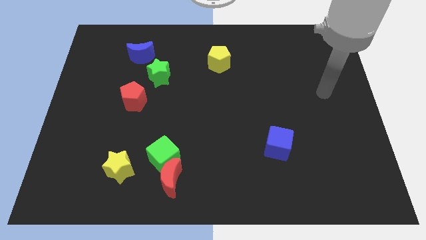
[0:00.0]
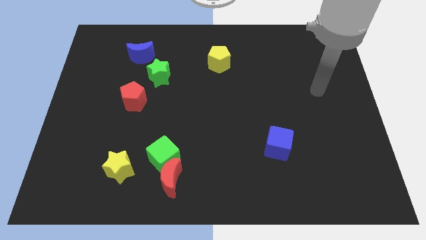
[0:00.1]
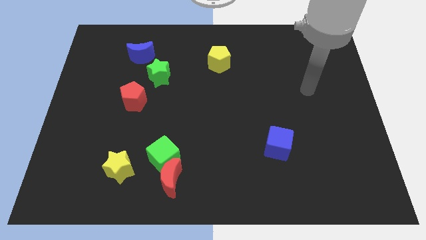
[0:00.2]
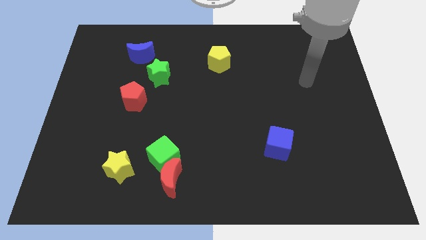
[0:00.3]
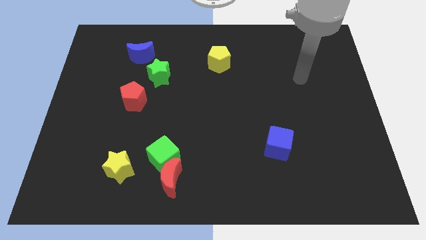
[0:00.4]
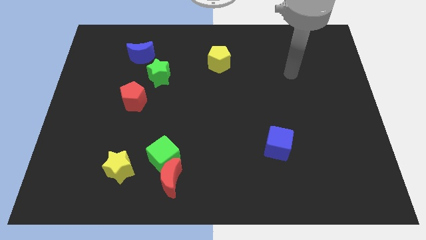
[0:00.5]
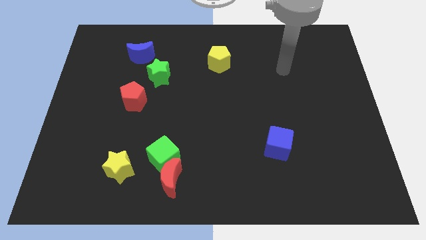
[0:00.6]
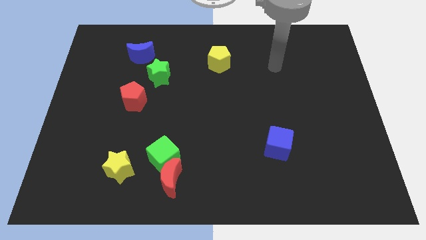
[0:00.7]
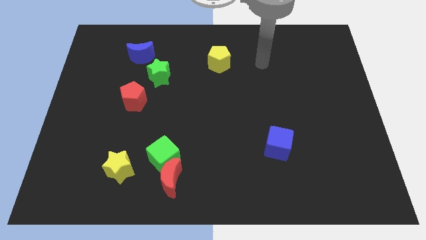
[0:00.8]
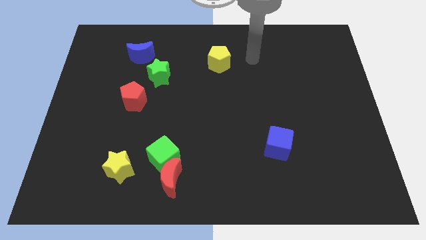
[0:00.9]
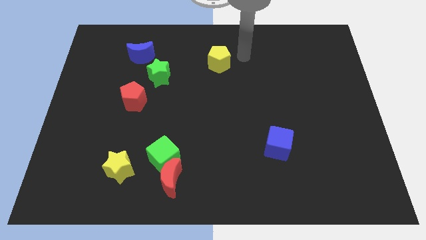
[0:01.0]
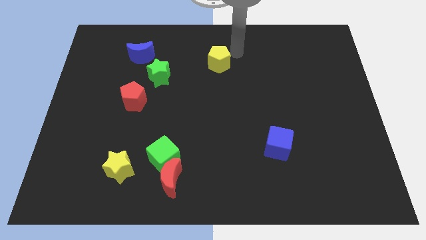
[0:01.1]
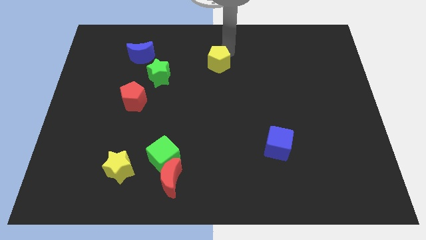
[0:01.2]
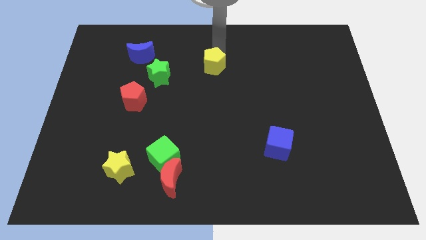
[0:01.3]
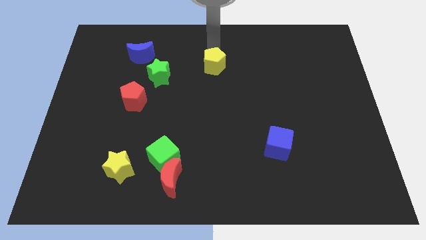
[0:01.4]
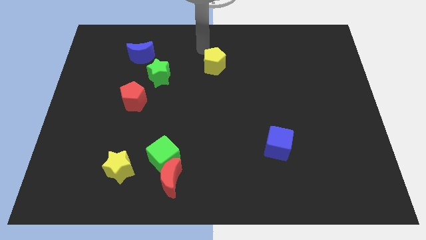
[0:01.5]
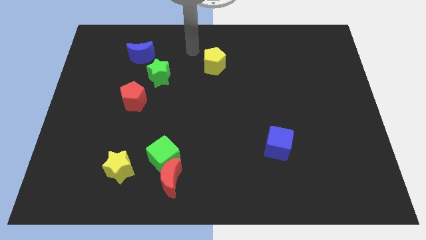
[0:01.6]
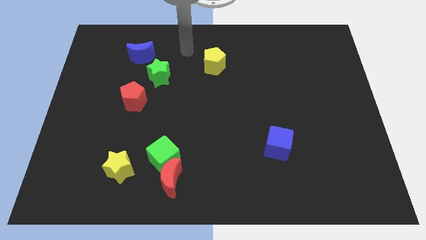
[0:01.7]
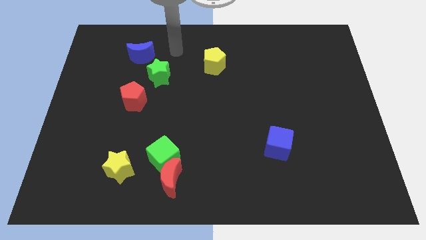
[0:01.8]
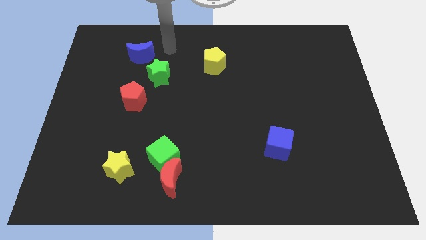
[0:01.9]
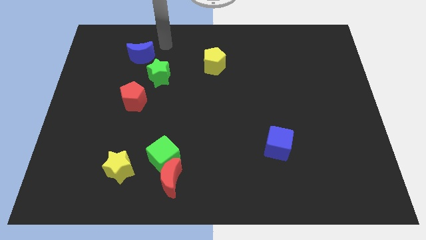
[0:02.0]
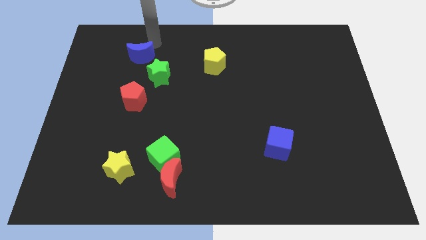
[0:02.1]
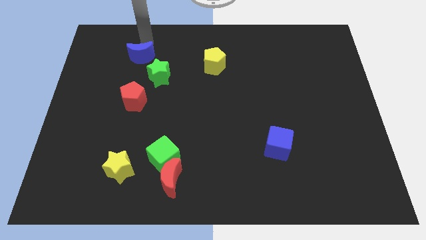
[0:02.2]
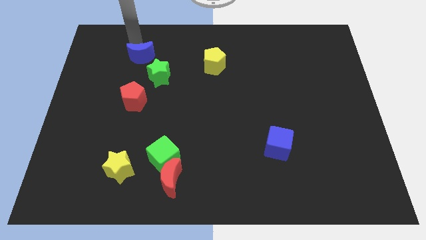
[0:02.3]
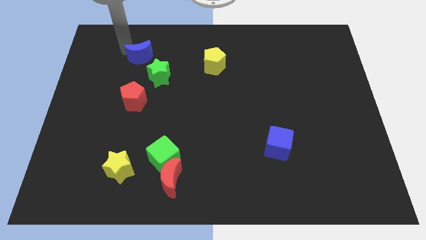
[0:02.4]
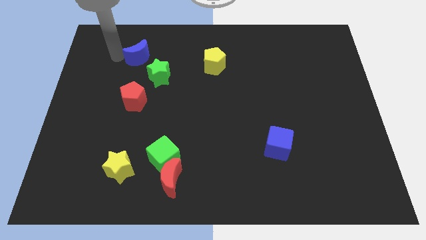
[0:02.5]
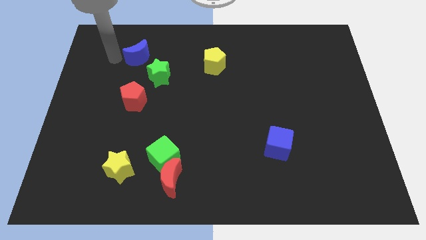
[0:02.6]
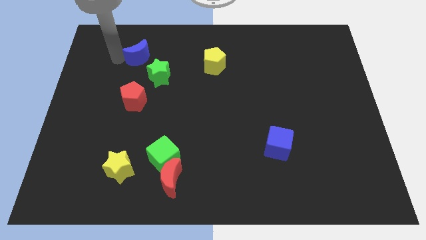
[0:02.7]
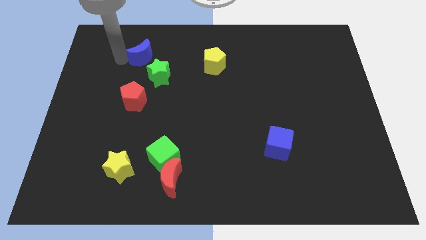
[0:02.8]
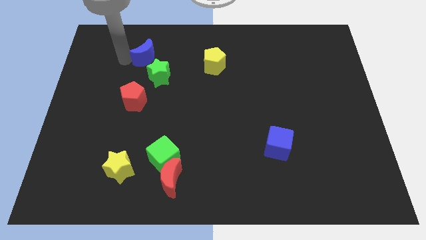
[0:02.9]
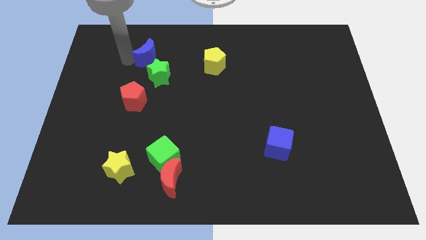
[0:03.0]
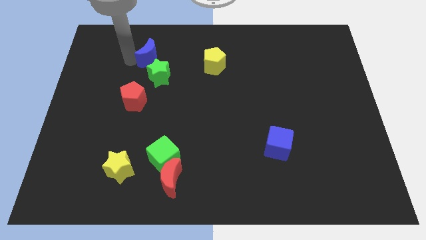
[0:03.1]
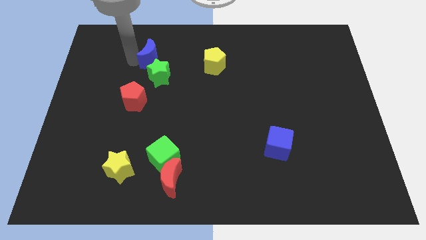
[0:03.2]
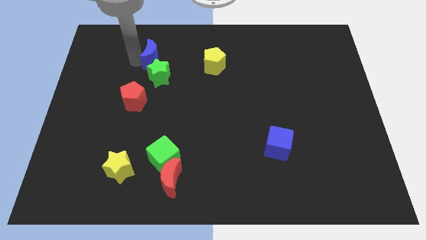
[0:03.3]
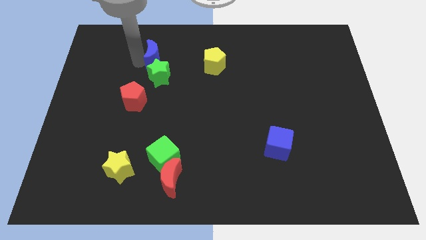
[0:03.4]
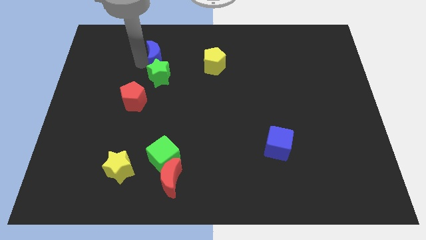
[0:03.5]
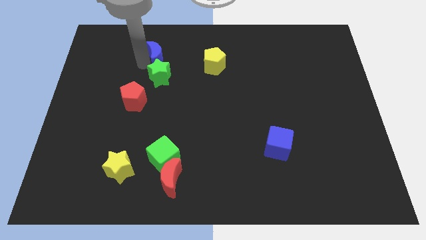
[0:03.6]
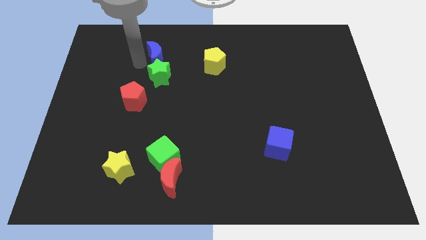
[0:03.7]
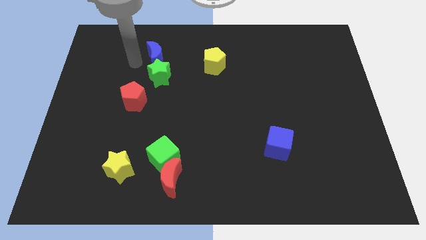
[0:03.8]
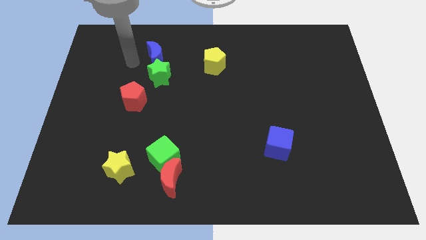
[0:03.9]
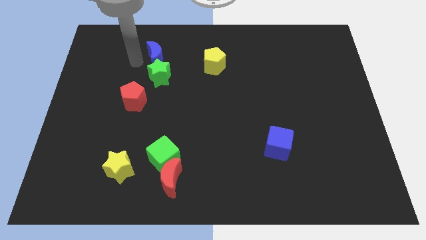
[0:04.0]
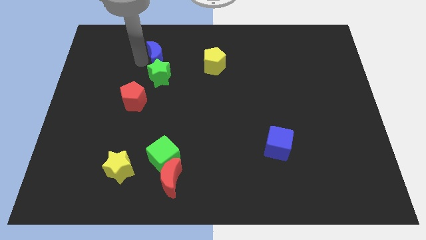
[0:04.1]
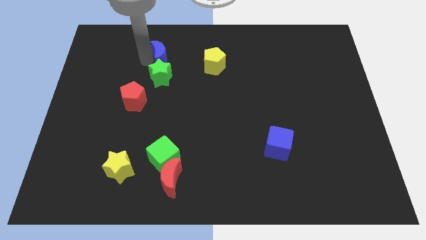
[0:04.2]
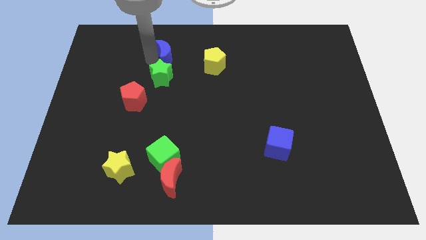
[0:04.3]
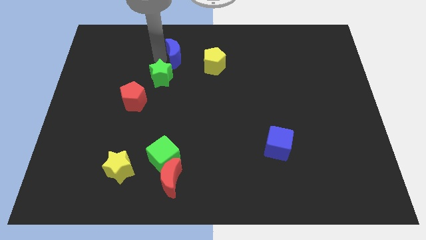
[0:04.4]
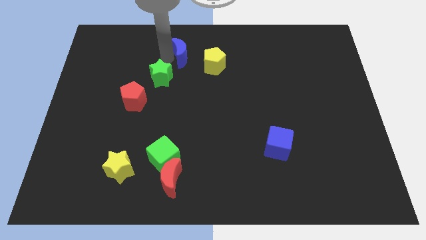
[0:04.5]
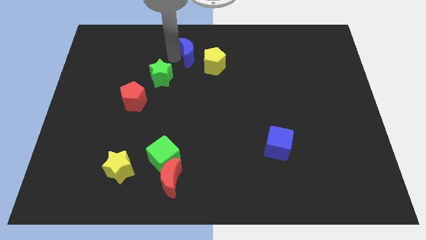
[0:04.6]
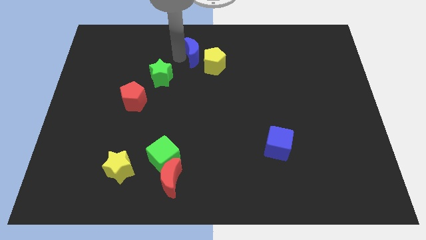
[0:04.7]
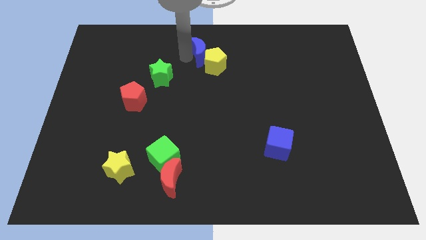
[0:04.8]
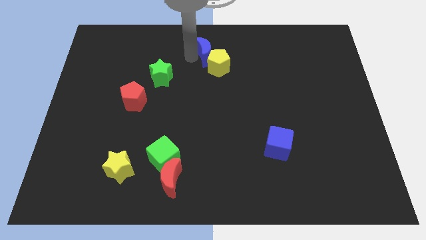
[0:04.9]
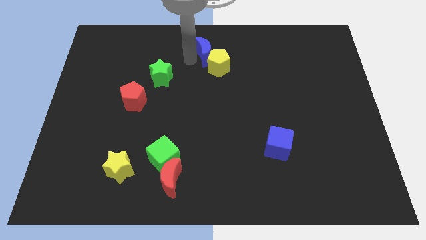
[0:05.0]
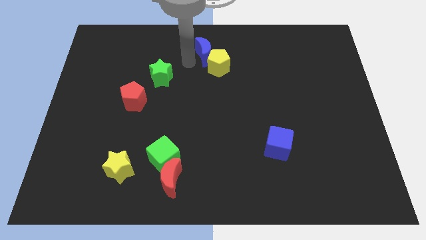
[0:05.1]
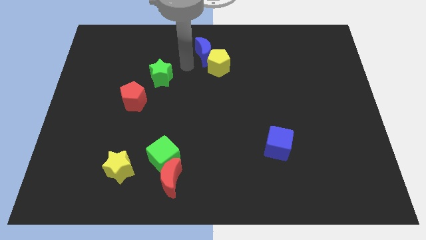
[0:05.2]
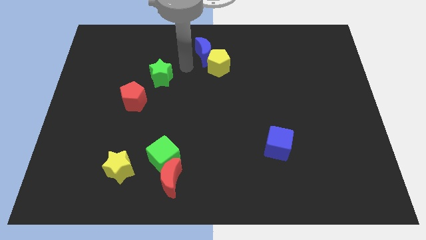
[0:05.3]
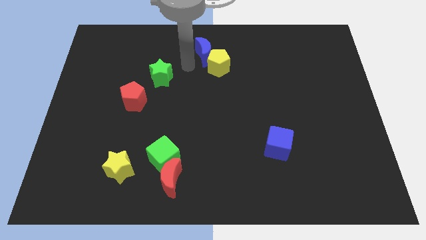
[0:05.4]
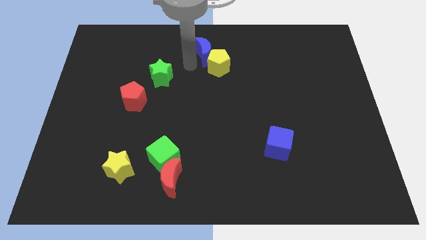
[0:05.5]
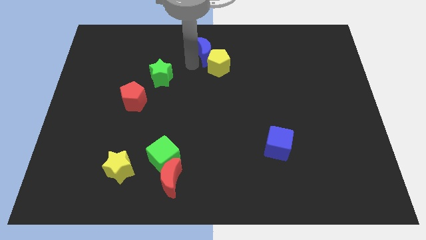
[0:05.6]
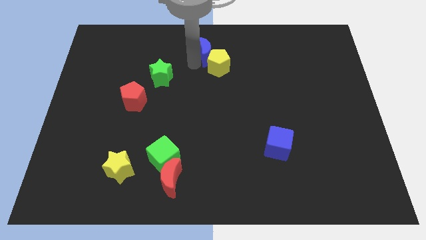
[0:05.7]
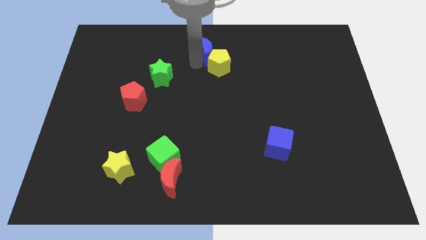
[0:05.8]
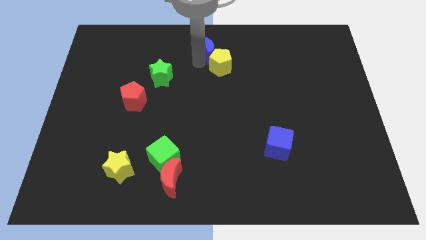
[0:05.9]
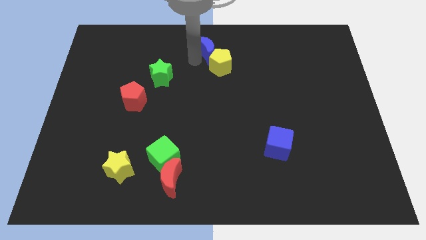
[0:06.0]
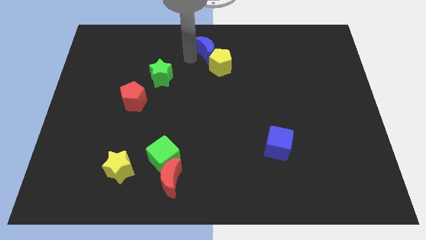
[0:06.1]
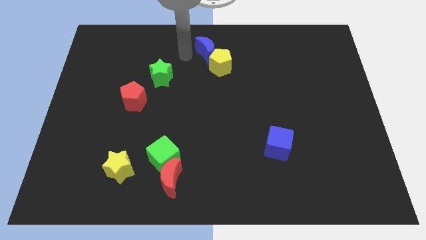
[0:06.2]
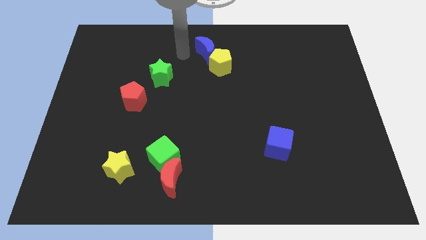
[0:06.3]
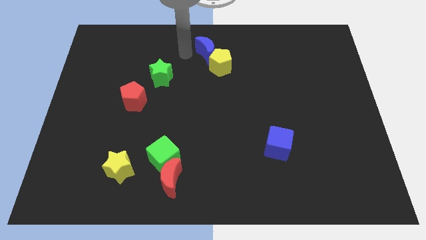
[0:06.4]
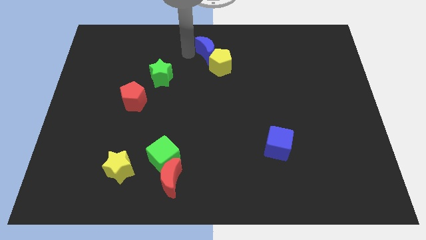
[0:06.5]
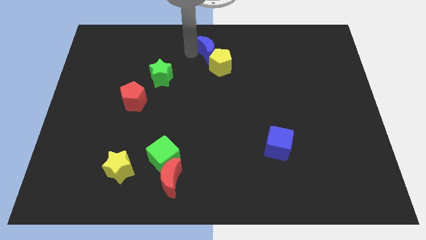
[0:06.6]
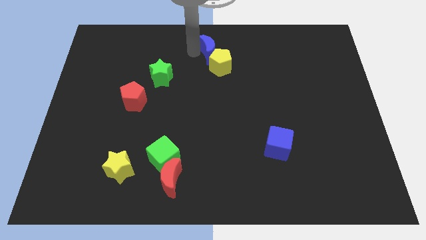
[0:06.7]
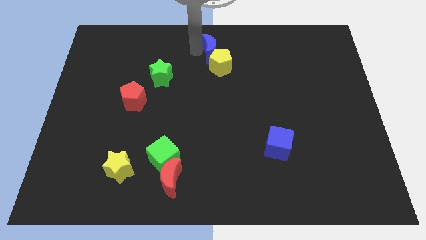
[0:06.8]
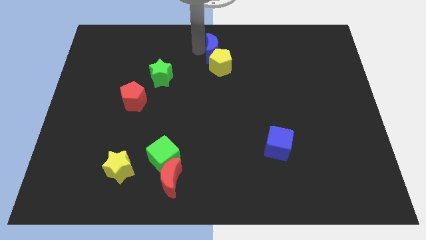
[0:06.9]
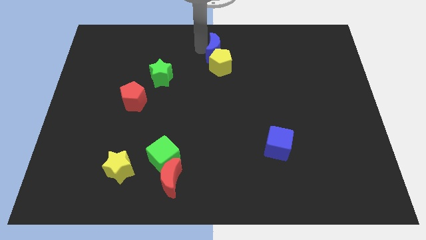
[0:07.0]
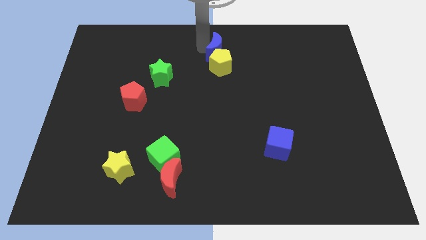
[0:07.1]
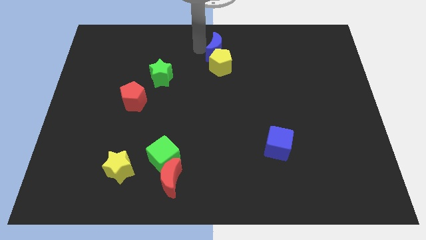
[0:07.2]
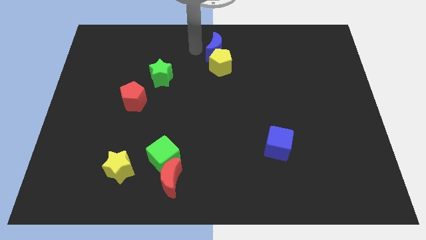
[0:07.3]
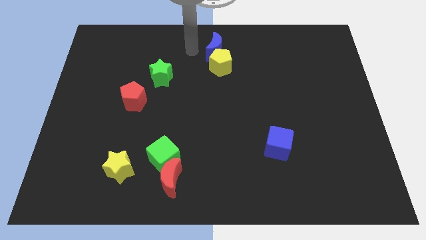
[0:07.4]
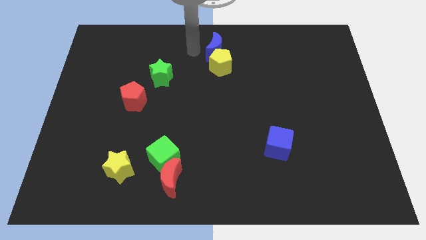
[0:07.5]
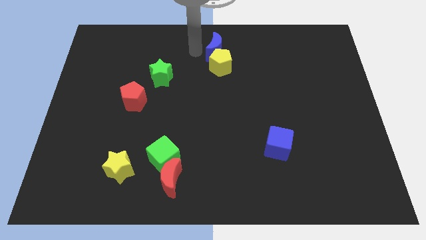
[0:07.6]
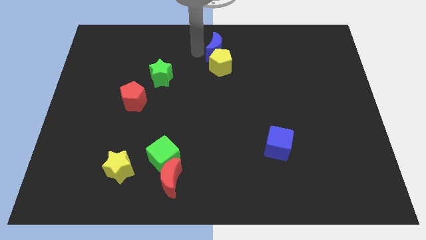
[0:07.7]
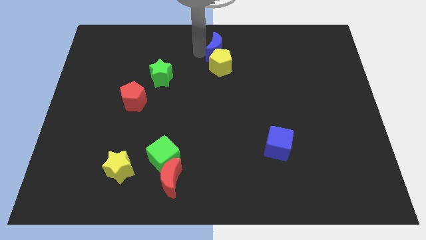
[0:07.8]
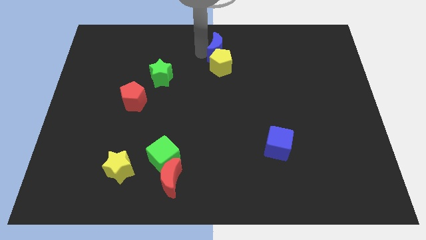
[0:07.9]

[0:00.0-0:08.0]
slide the blue moon to the right
